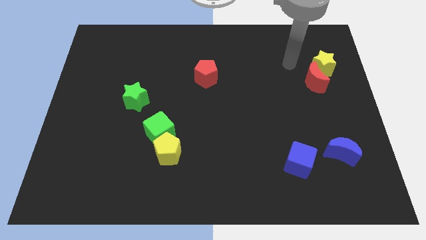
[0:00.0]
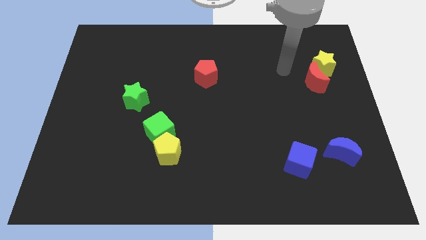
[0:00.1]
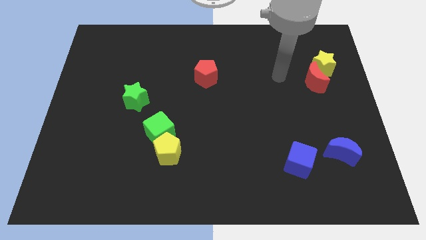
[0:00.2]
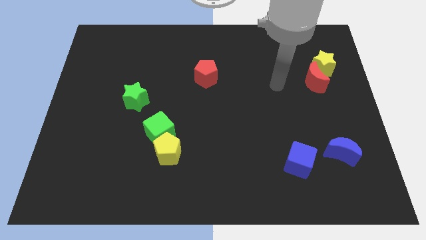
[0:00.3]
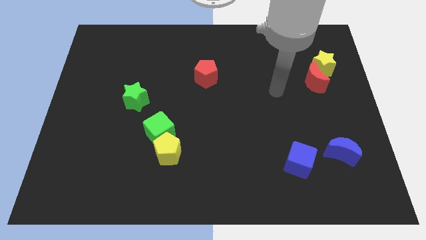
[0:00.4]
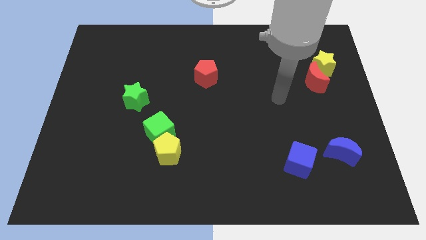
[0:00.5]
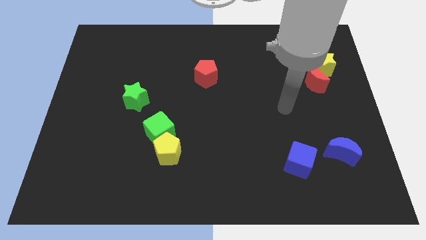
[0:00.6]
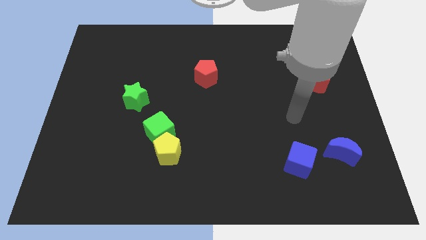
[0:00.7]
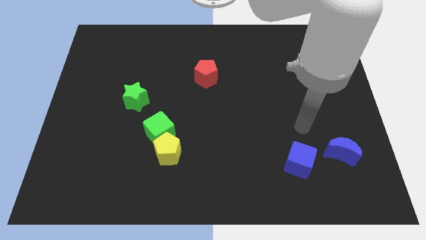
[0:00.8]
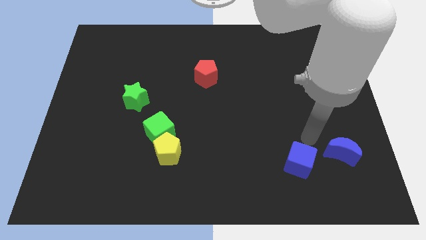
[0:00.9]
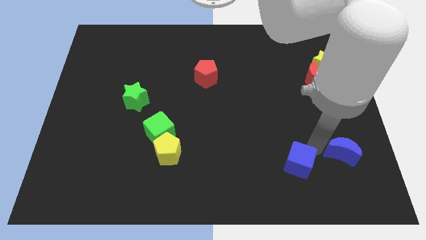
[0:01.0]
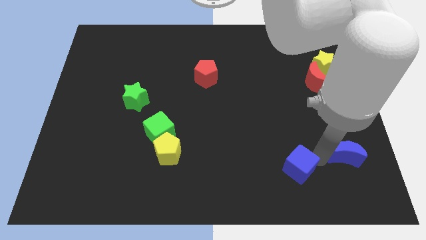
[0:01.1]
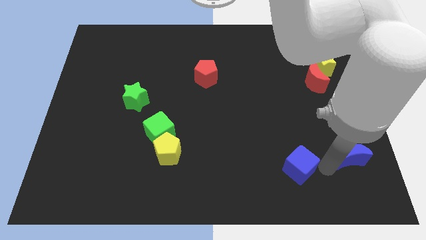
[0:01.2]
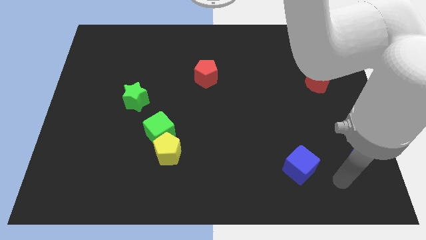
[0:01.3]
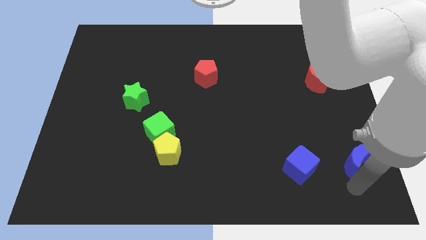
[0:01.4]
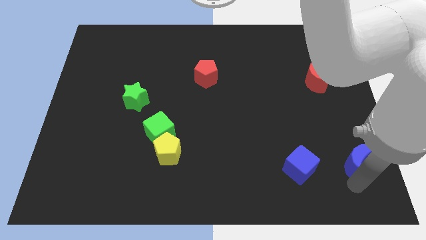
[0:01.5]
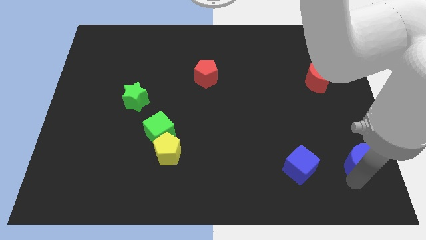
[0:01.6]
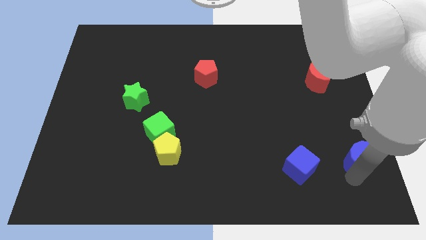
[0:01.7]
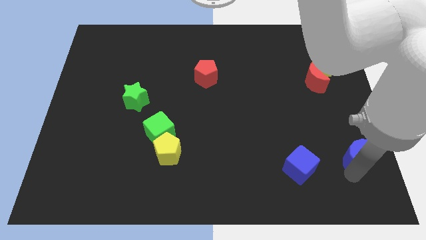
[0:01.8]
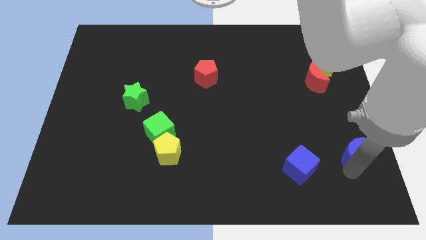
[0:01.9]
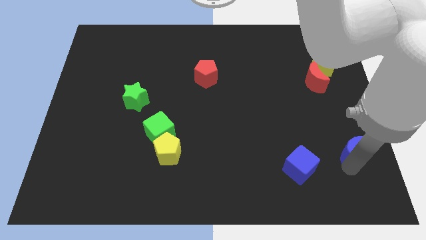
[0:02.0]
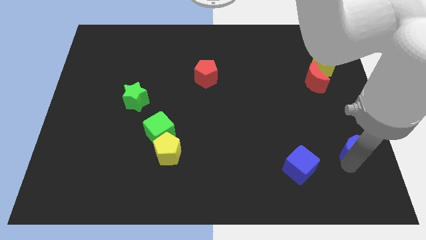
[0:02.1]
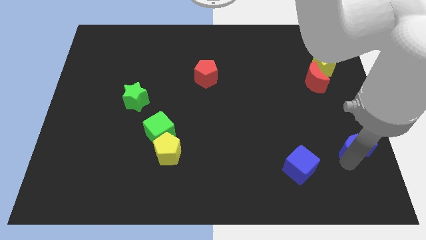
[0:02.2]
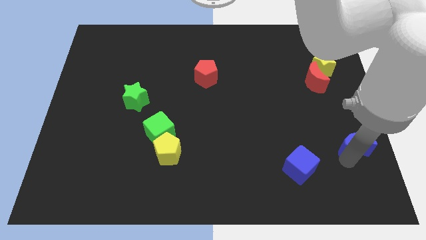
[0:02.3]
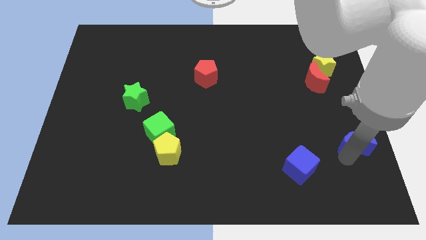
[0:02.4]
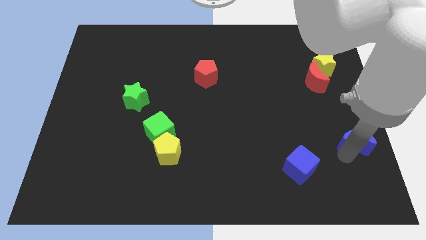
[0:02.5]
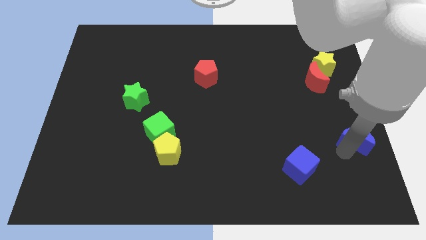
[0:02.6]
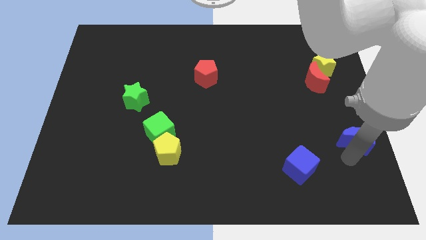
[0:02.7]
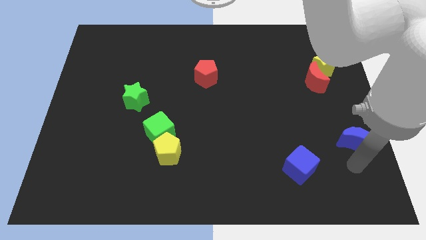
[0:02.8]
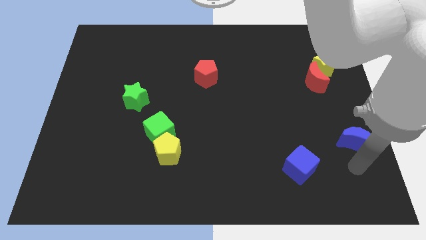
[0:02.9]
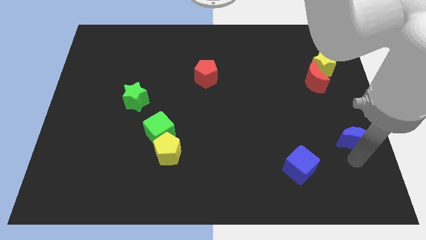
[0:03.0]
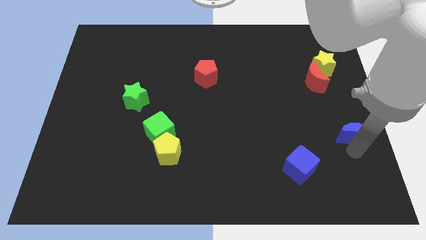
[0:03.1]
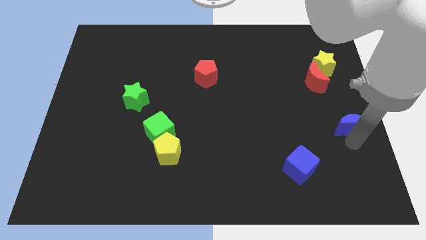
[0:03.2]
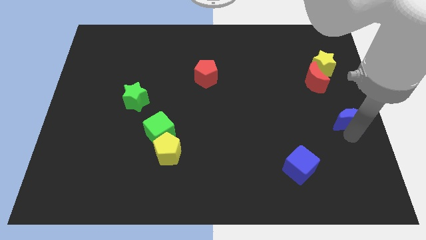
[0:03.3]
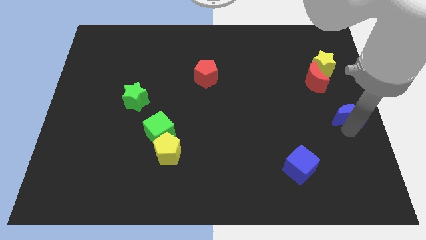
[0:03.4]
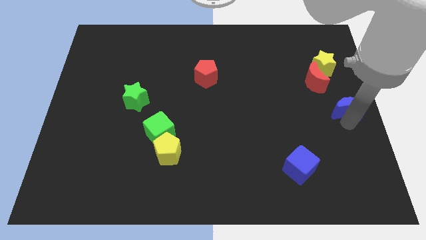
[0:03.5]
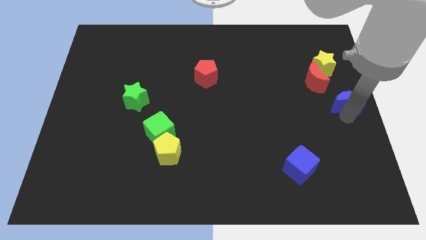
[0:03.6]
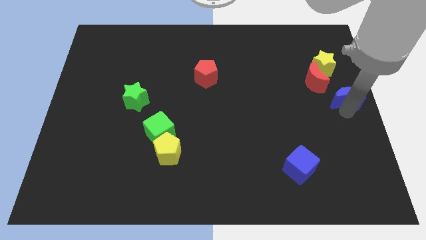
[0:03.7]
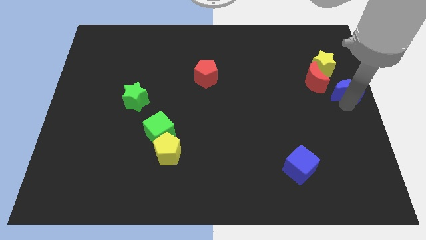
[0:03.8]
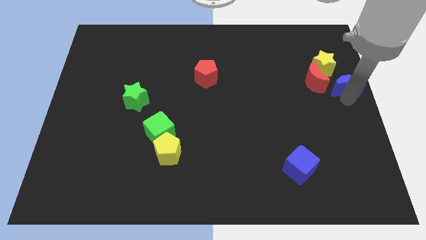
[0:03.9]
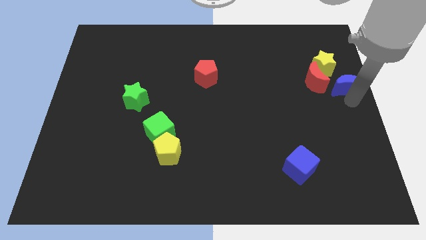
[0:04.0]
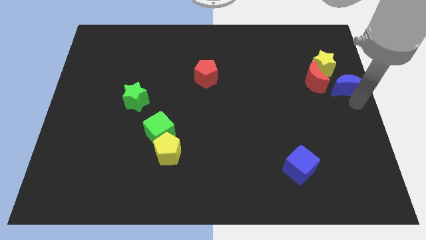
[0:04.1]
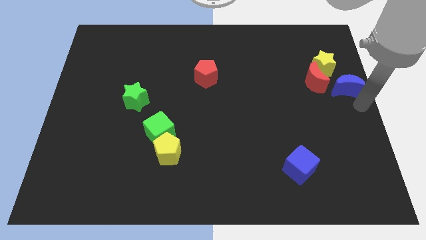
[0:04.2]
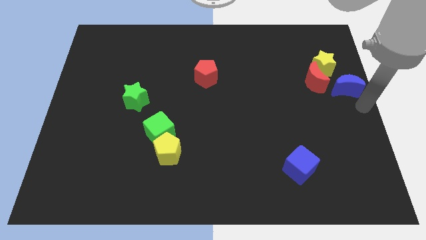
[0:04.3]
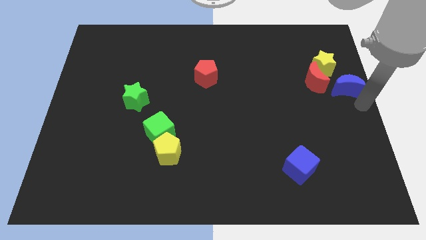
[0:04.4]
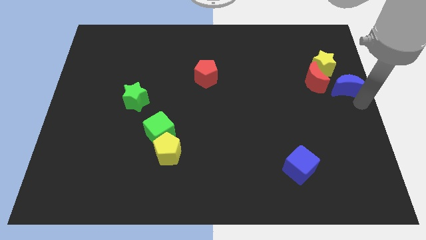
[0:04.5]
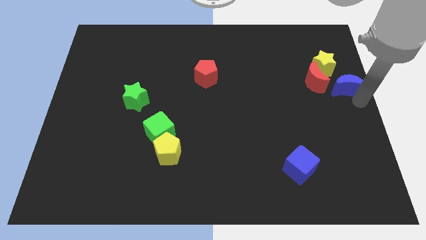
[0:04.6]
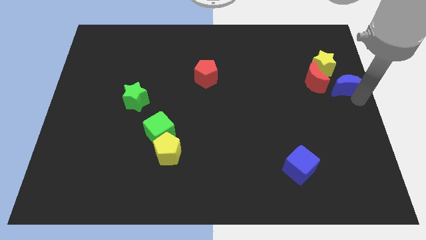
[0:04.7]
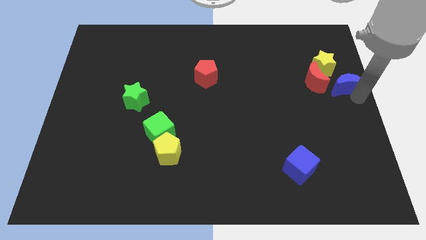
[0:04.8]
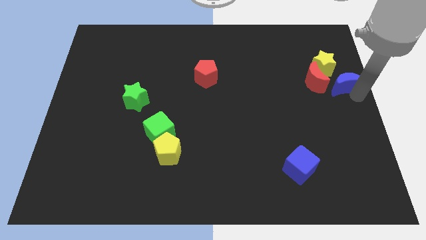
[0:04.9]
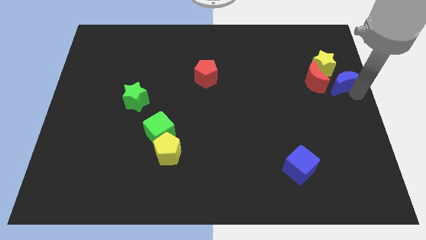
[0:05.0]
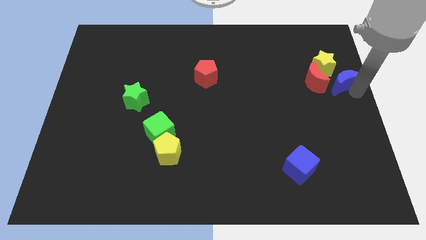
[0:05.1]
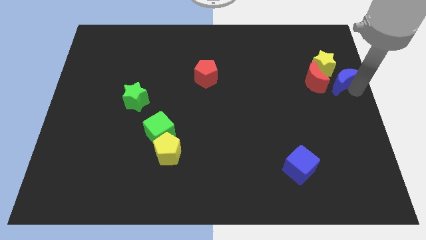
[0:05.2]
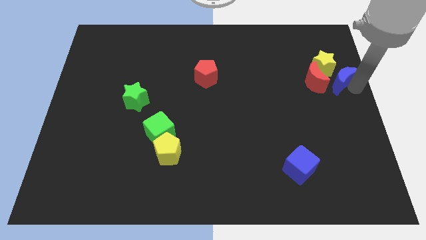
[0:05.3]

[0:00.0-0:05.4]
slide the blue moon next to the yellow star

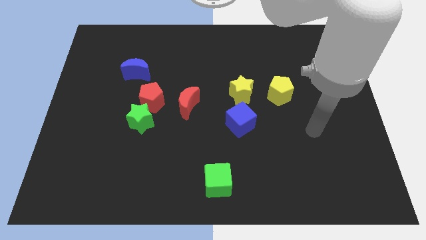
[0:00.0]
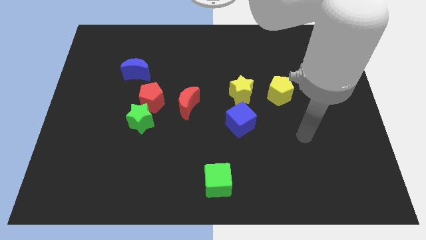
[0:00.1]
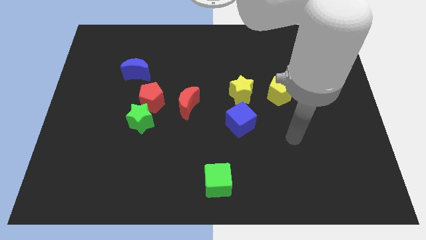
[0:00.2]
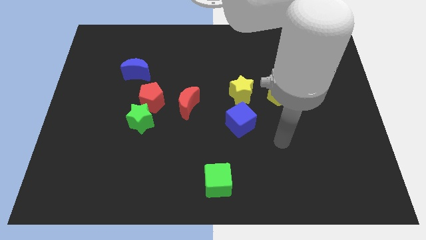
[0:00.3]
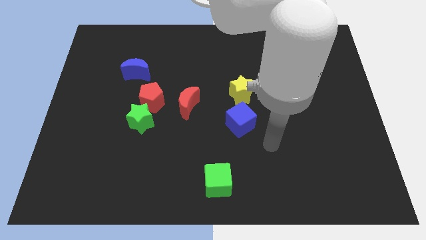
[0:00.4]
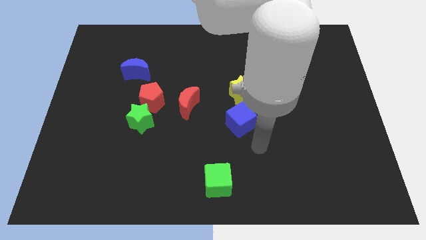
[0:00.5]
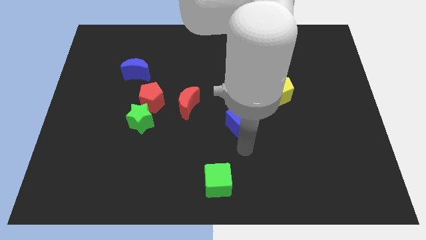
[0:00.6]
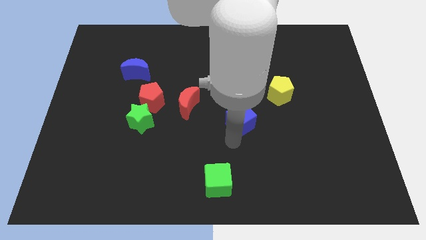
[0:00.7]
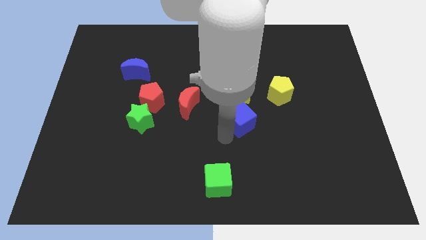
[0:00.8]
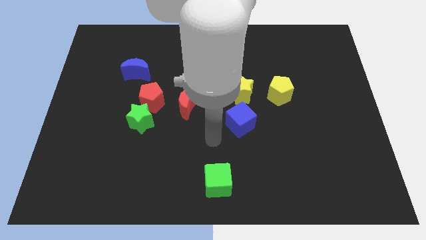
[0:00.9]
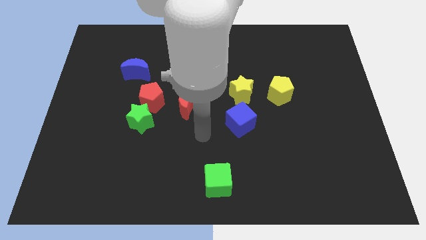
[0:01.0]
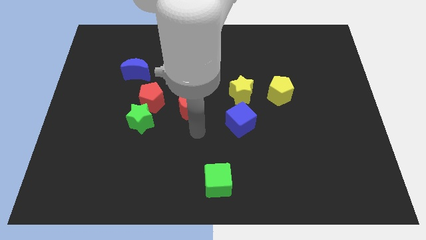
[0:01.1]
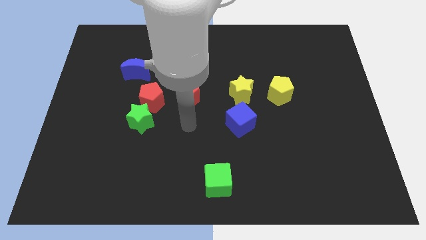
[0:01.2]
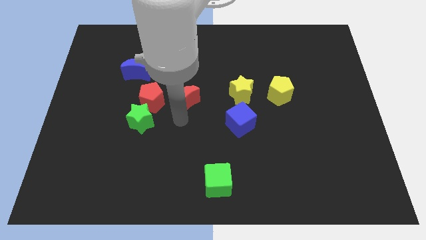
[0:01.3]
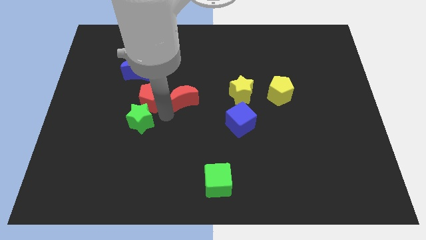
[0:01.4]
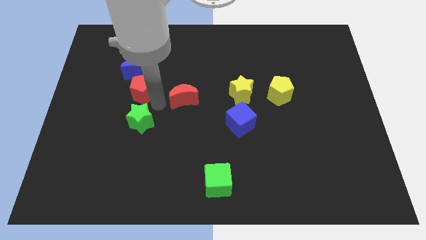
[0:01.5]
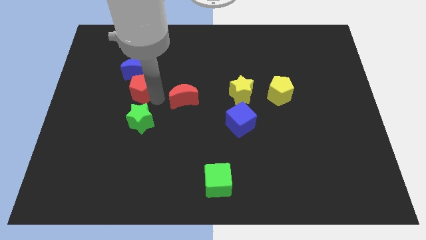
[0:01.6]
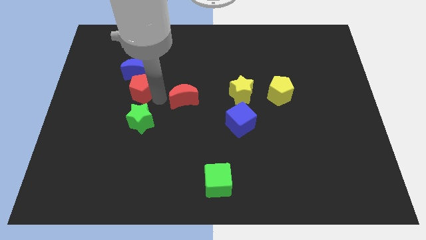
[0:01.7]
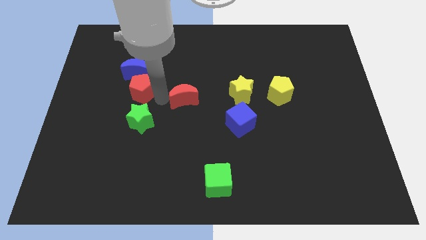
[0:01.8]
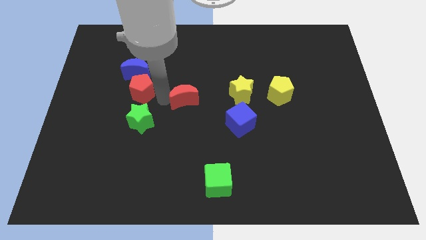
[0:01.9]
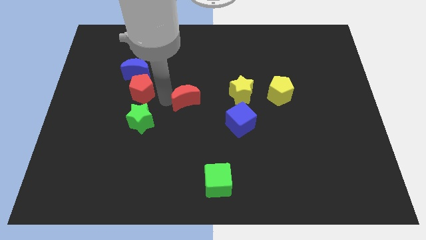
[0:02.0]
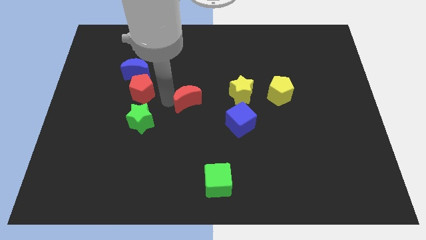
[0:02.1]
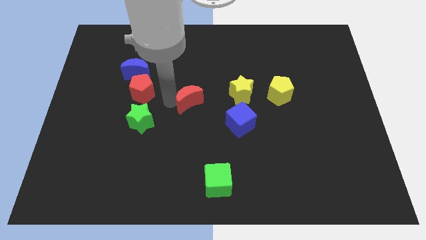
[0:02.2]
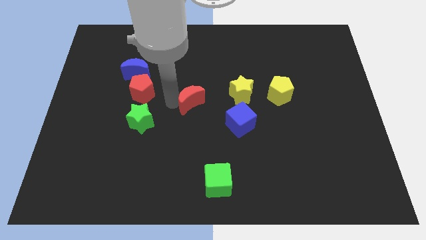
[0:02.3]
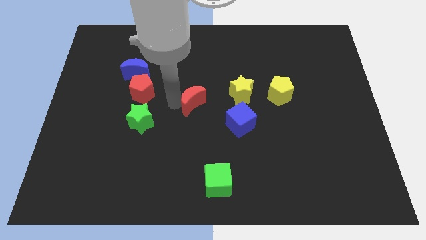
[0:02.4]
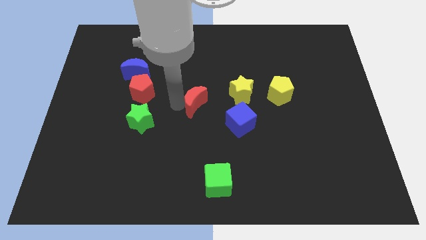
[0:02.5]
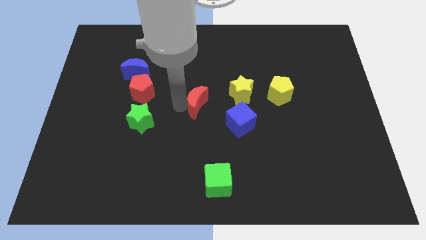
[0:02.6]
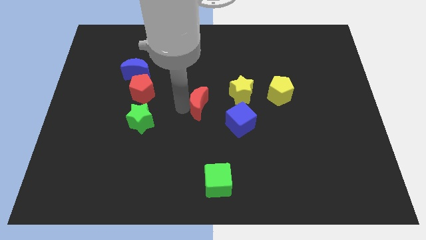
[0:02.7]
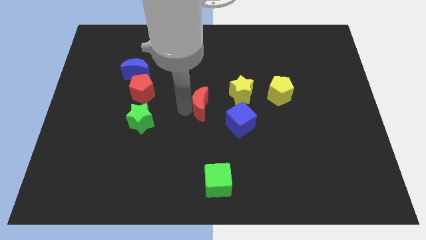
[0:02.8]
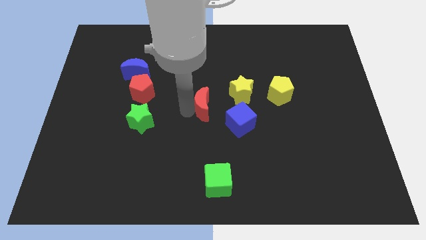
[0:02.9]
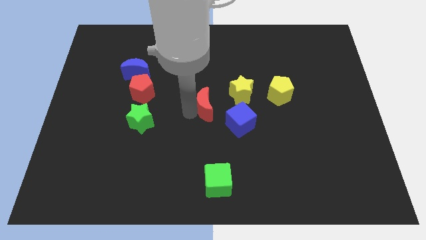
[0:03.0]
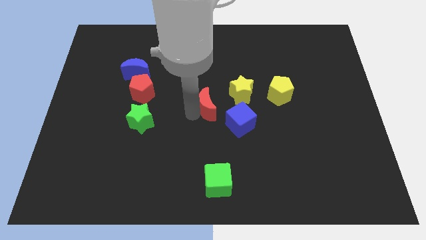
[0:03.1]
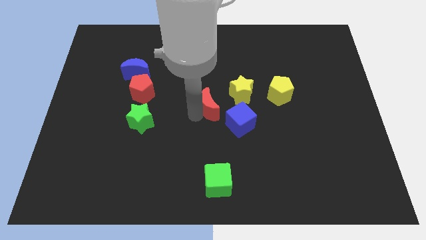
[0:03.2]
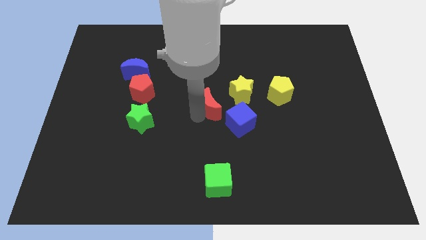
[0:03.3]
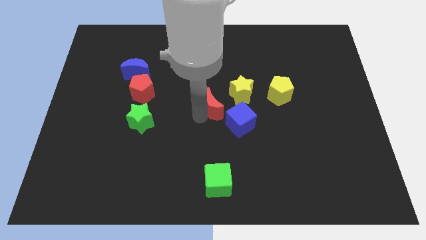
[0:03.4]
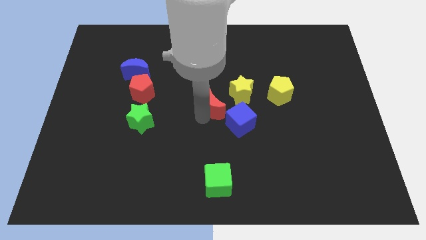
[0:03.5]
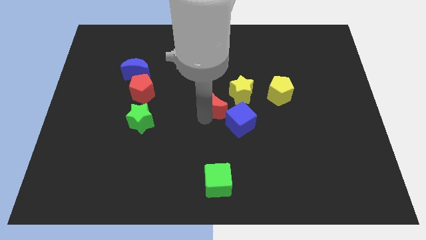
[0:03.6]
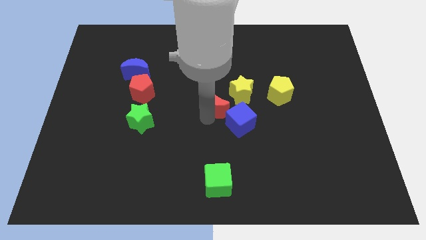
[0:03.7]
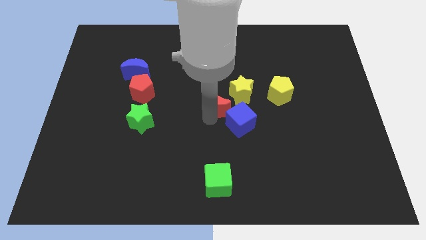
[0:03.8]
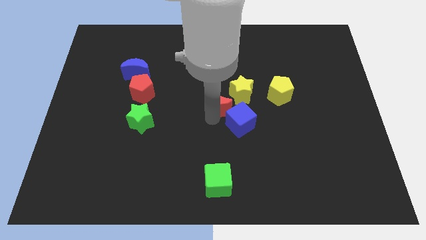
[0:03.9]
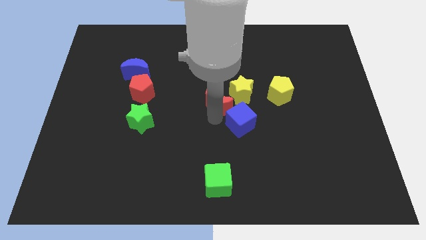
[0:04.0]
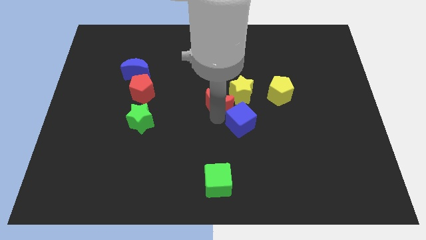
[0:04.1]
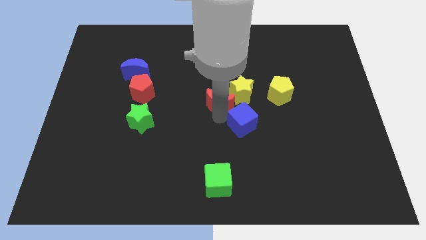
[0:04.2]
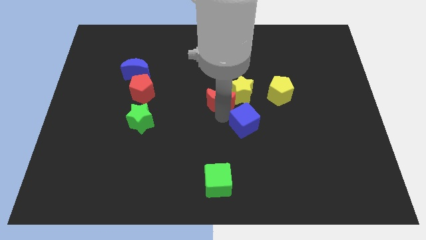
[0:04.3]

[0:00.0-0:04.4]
move the red moon next to the yellow star
